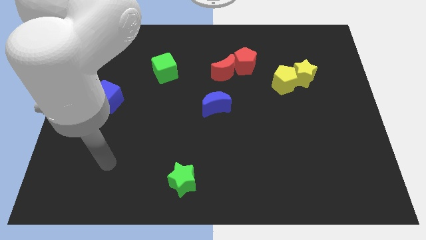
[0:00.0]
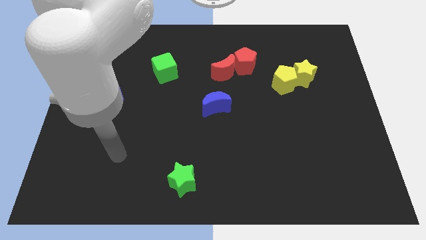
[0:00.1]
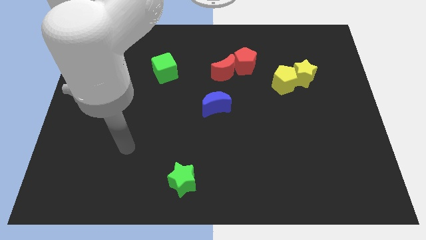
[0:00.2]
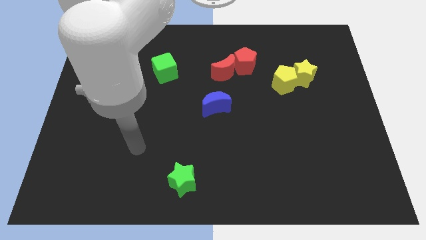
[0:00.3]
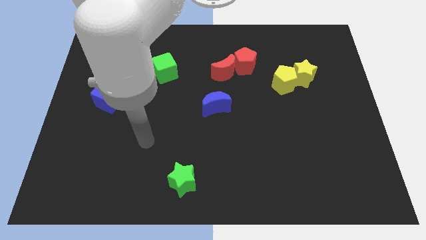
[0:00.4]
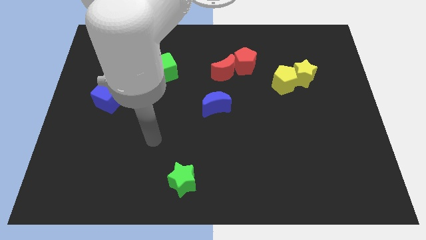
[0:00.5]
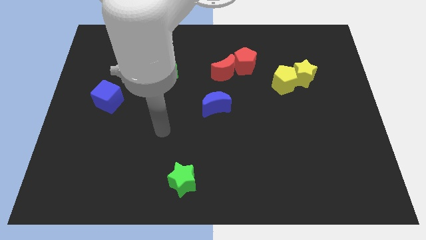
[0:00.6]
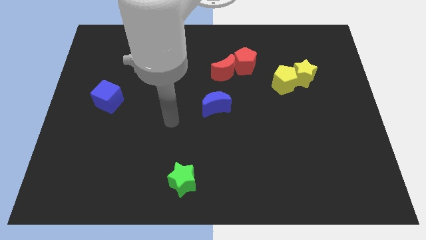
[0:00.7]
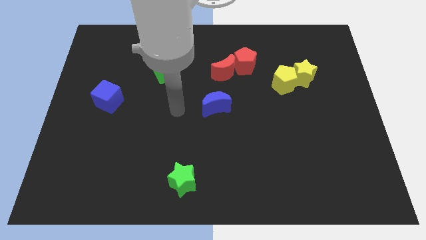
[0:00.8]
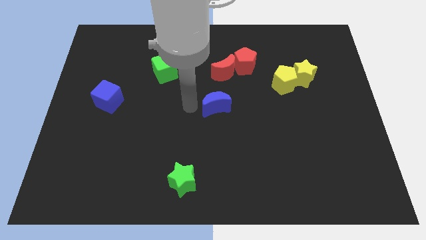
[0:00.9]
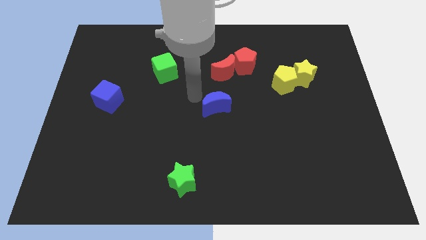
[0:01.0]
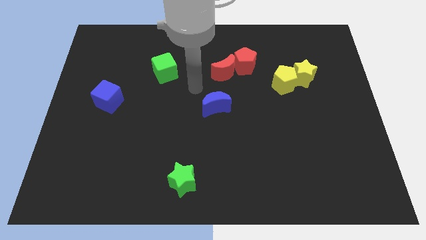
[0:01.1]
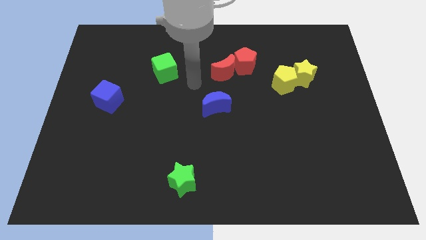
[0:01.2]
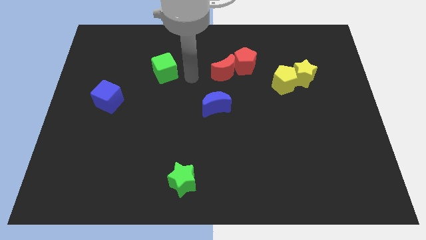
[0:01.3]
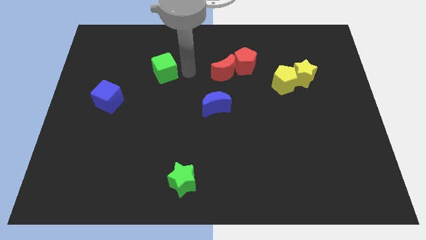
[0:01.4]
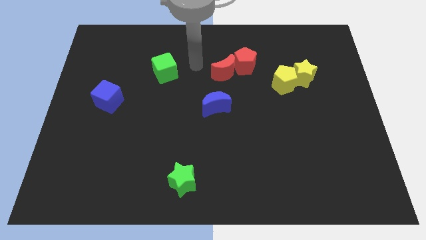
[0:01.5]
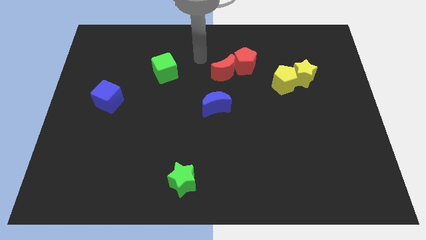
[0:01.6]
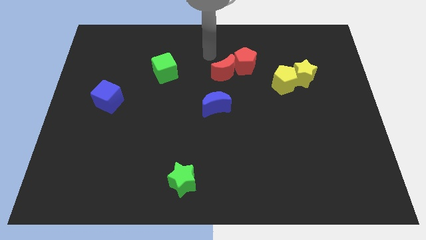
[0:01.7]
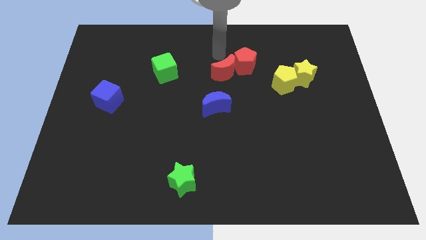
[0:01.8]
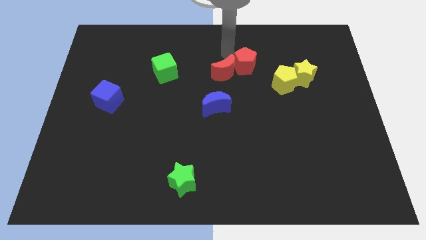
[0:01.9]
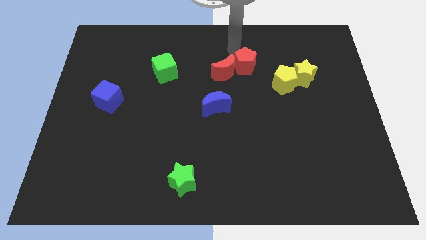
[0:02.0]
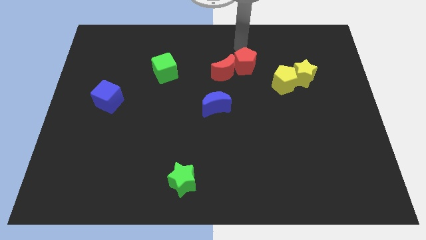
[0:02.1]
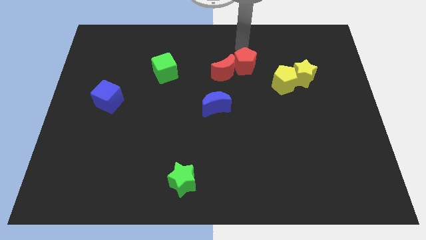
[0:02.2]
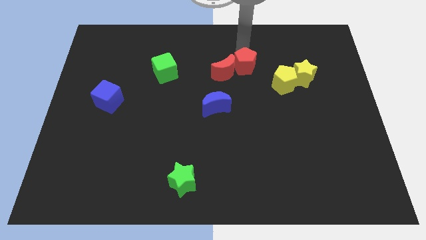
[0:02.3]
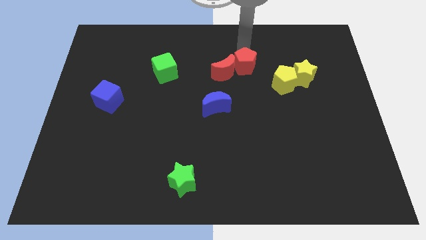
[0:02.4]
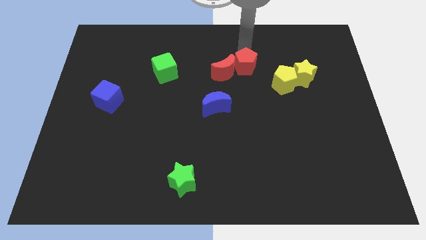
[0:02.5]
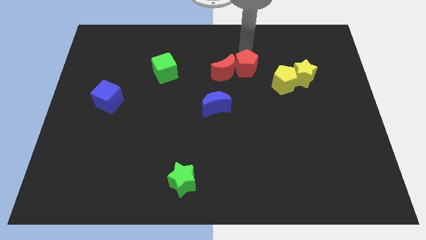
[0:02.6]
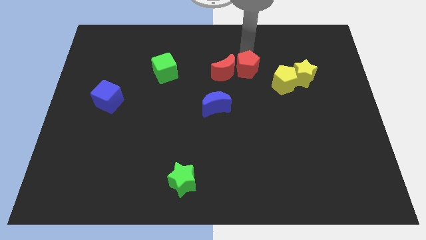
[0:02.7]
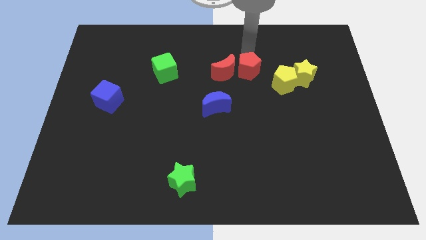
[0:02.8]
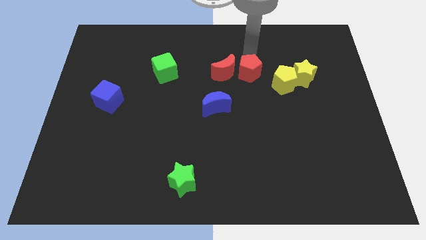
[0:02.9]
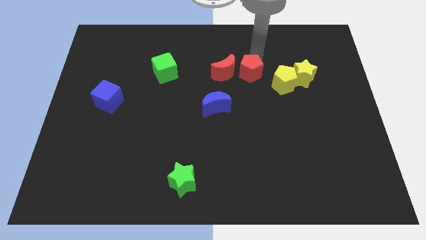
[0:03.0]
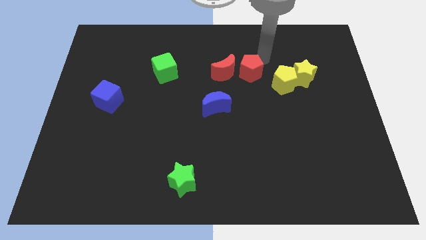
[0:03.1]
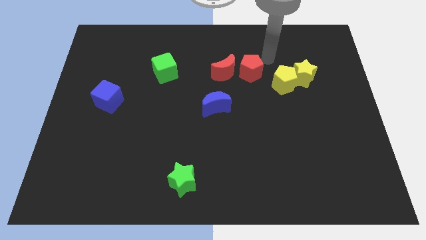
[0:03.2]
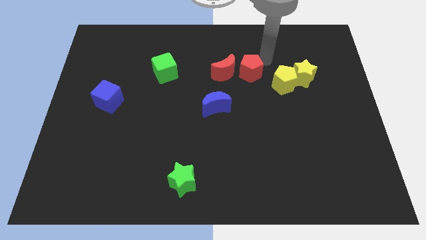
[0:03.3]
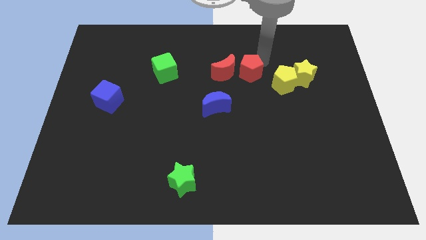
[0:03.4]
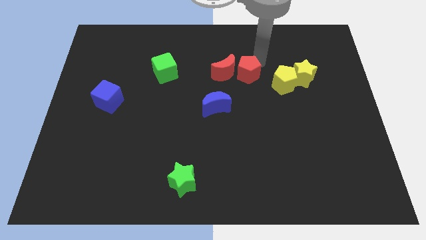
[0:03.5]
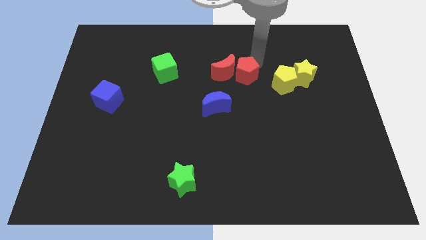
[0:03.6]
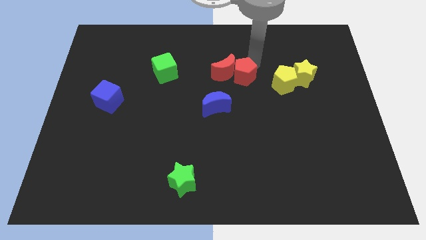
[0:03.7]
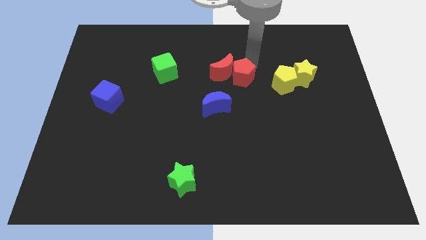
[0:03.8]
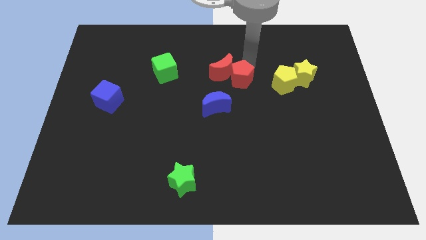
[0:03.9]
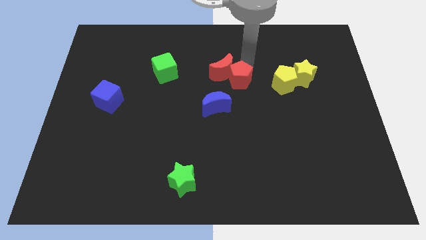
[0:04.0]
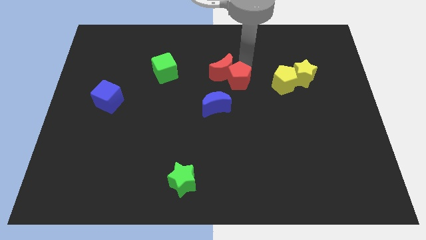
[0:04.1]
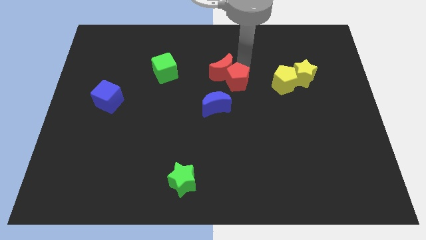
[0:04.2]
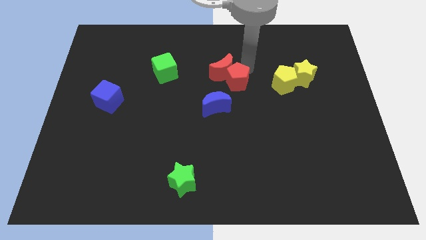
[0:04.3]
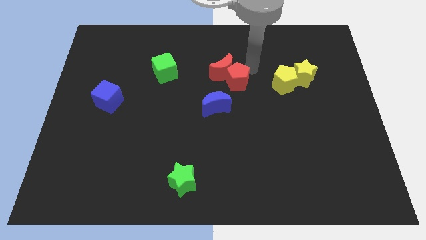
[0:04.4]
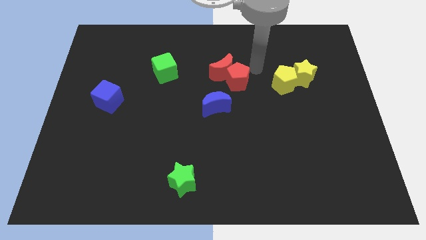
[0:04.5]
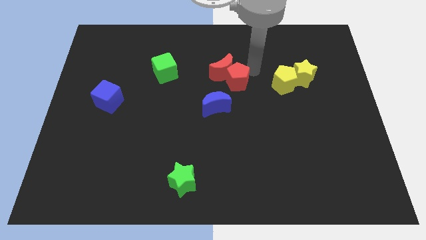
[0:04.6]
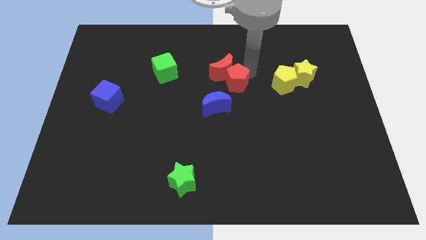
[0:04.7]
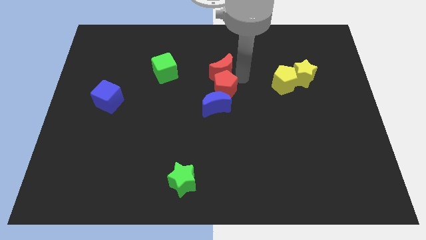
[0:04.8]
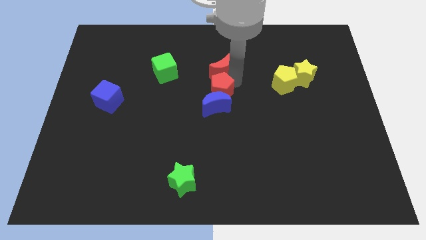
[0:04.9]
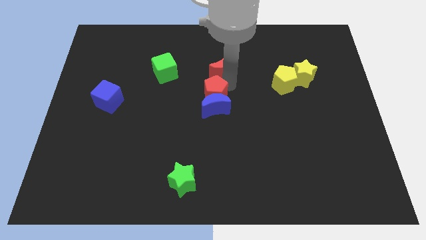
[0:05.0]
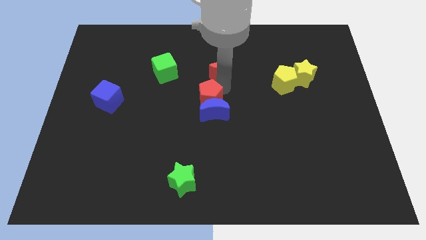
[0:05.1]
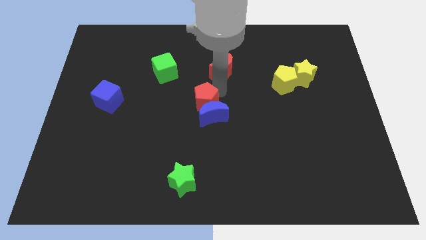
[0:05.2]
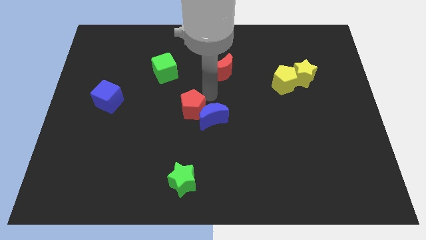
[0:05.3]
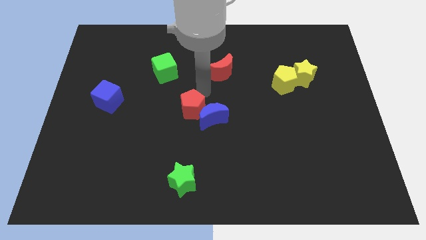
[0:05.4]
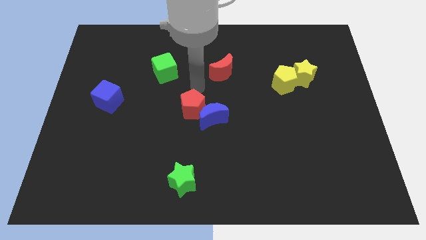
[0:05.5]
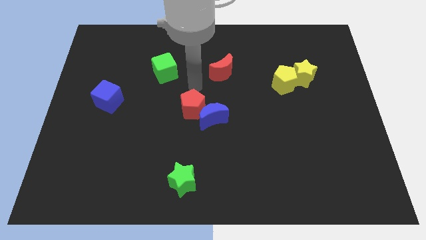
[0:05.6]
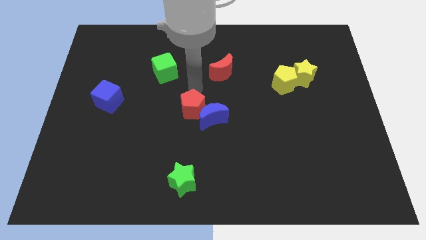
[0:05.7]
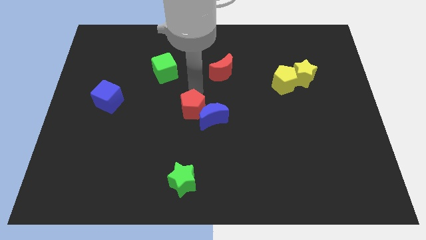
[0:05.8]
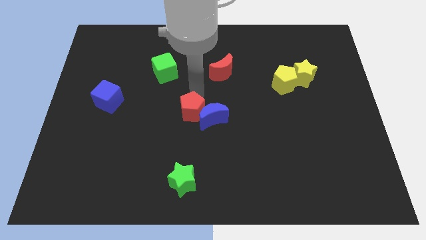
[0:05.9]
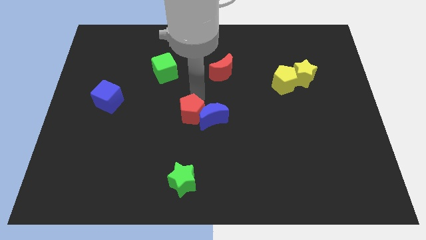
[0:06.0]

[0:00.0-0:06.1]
push the red pentagon diagonally down and to the left of the blue moon
